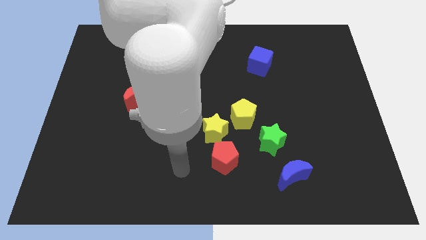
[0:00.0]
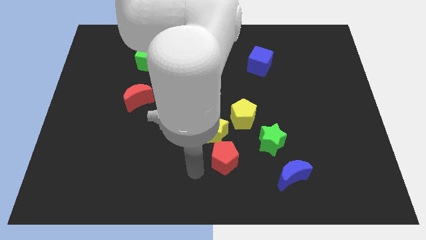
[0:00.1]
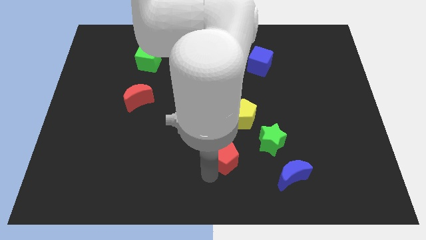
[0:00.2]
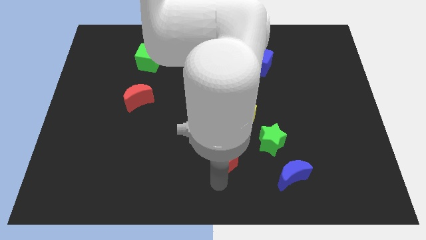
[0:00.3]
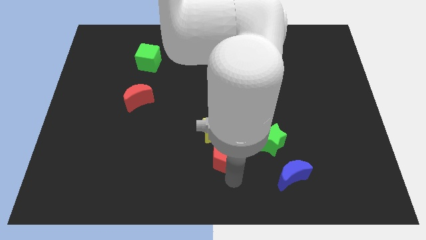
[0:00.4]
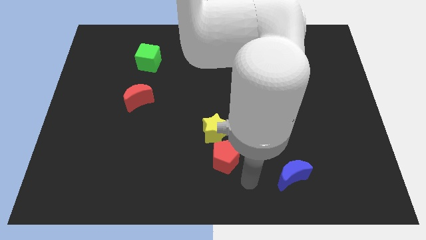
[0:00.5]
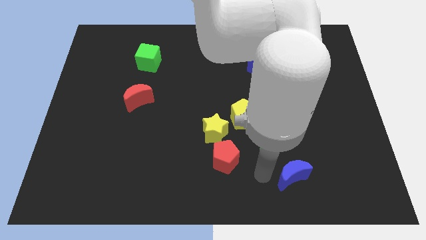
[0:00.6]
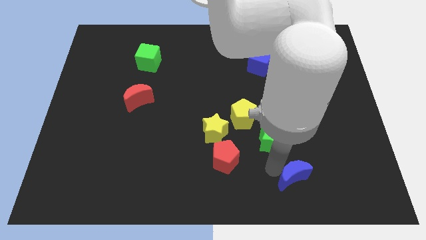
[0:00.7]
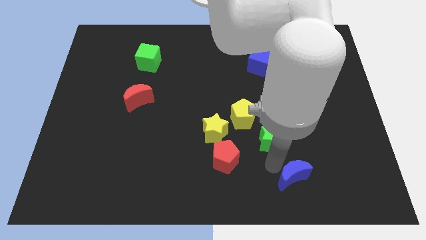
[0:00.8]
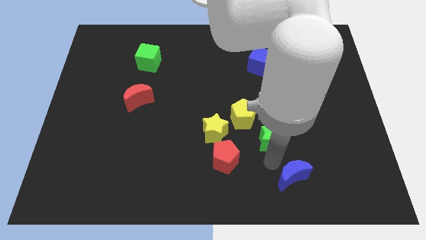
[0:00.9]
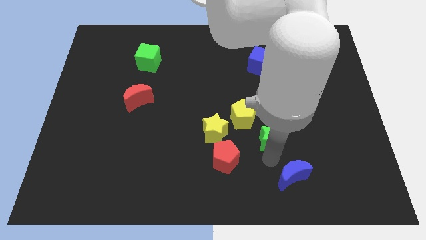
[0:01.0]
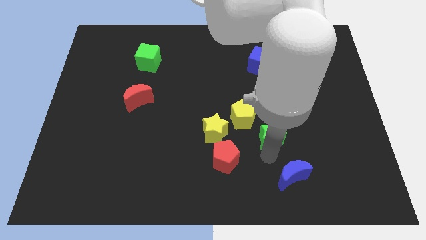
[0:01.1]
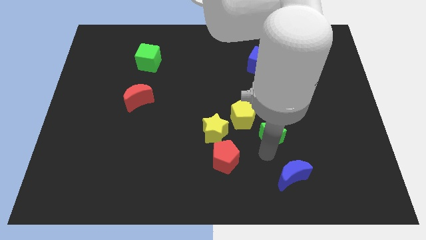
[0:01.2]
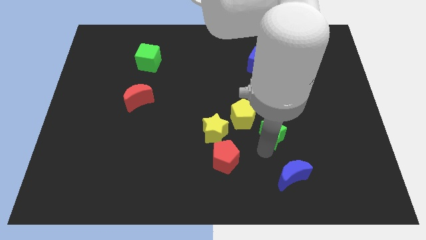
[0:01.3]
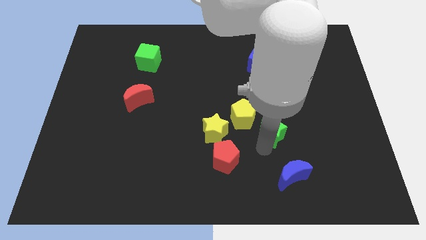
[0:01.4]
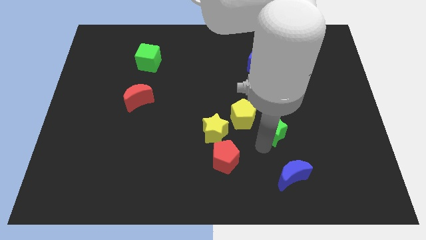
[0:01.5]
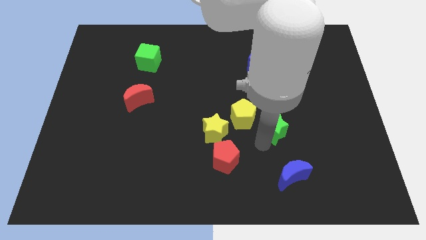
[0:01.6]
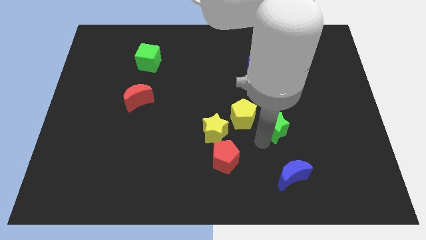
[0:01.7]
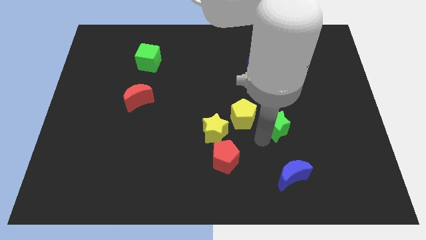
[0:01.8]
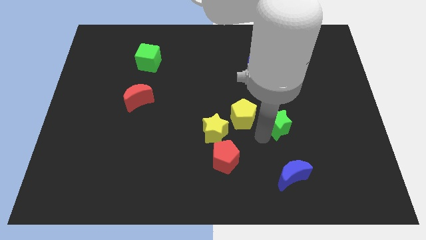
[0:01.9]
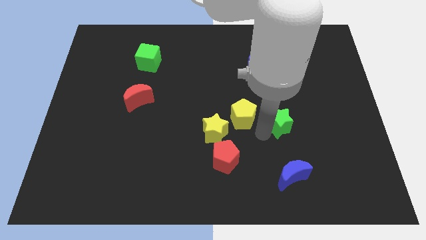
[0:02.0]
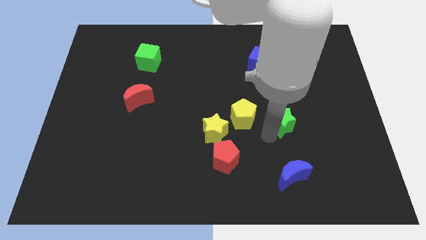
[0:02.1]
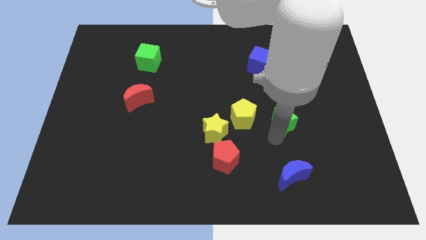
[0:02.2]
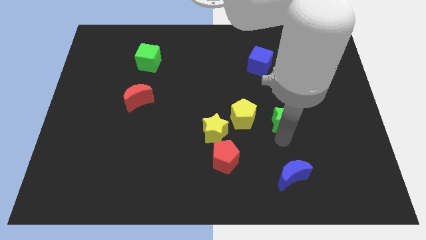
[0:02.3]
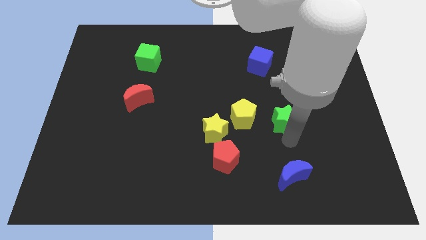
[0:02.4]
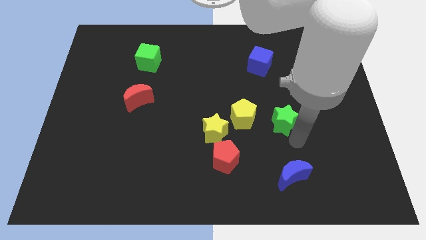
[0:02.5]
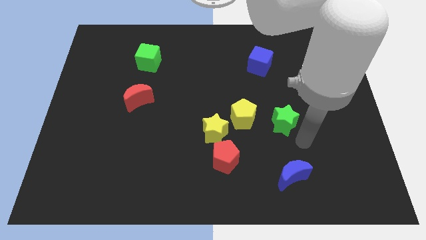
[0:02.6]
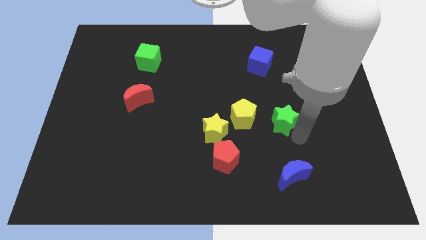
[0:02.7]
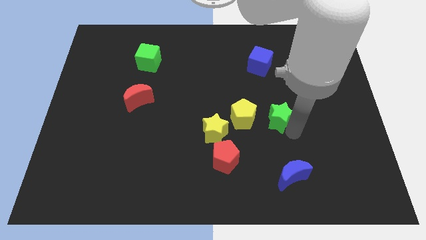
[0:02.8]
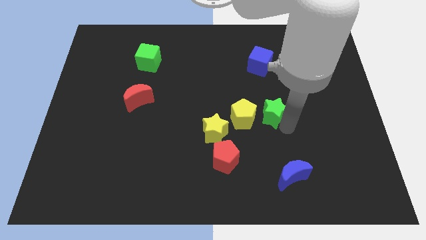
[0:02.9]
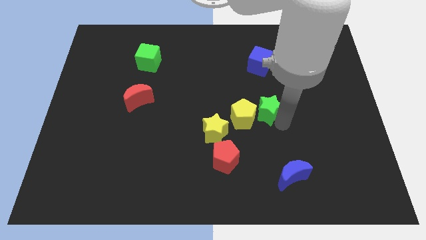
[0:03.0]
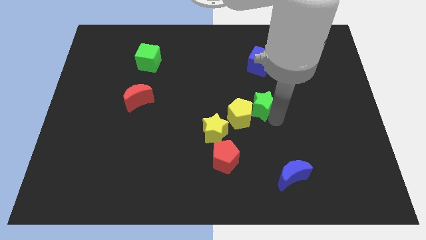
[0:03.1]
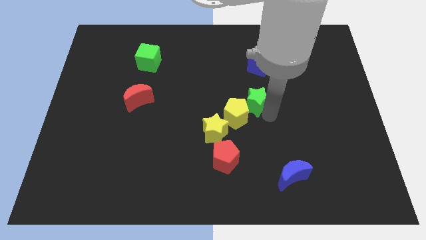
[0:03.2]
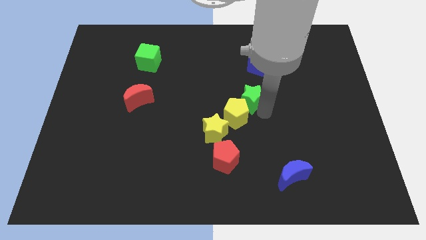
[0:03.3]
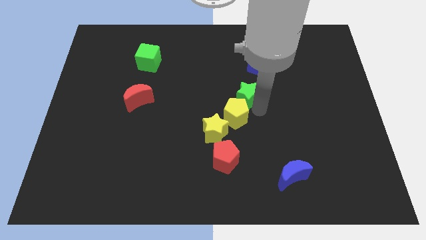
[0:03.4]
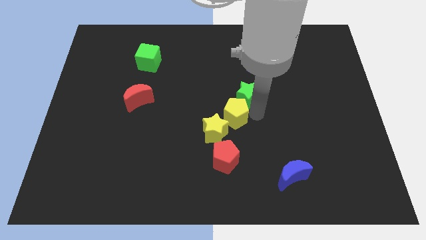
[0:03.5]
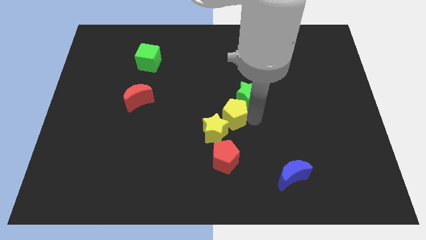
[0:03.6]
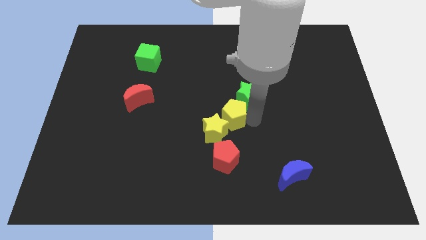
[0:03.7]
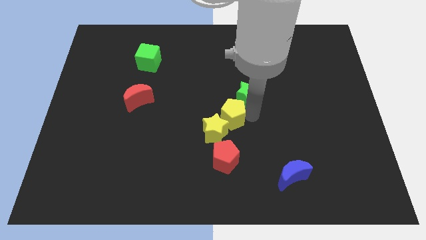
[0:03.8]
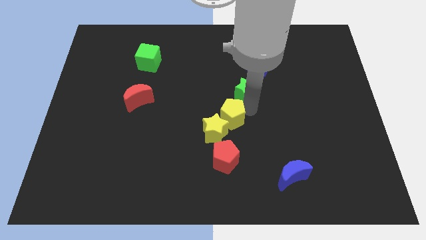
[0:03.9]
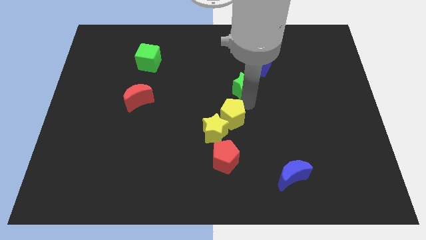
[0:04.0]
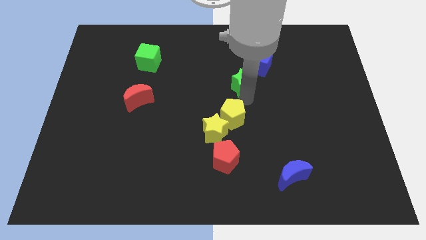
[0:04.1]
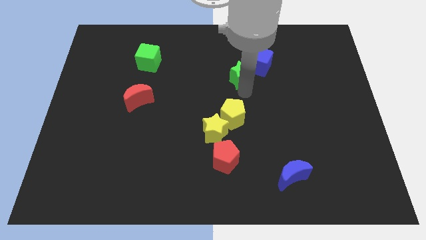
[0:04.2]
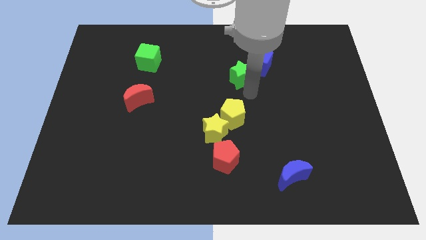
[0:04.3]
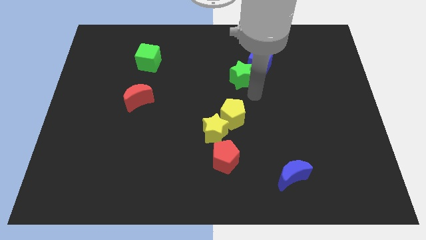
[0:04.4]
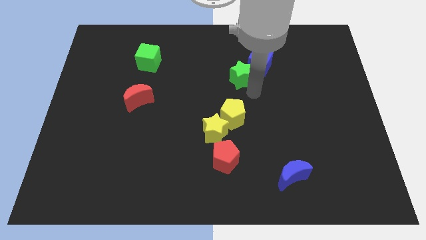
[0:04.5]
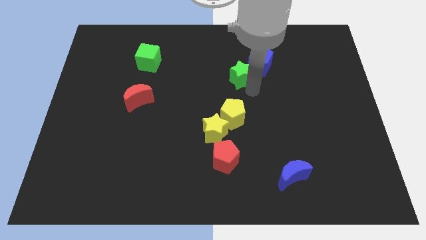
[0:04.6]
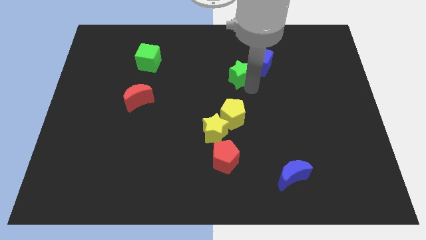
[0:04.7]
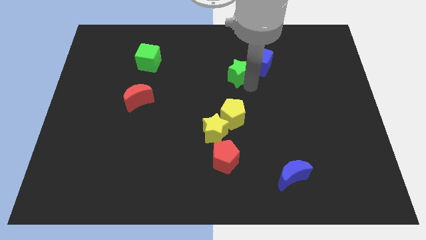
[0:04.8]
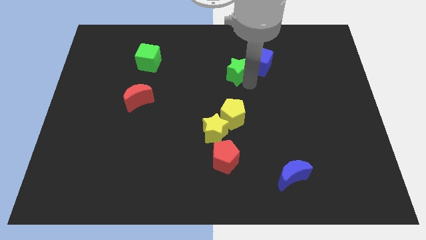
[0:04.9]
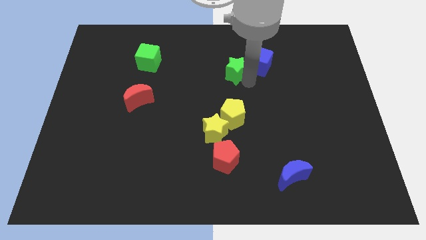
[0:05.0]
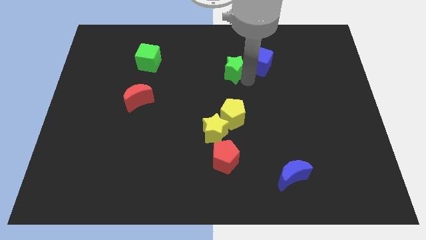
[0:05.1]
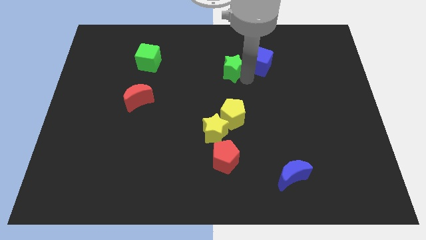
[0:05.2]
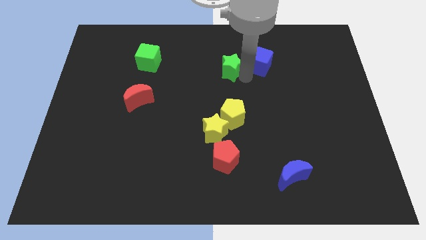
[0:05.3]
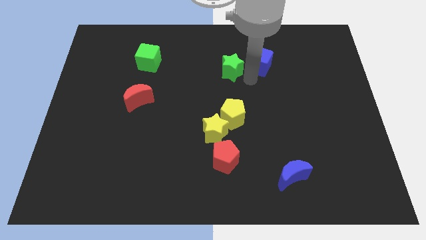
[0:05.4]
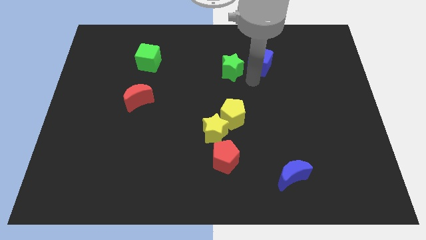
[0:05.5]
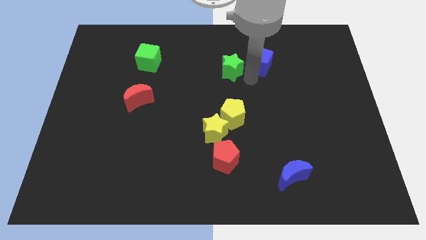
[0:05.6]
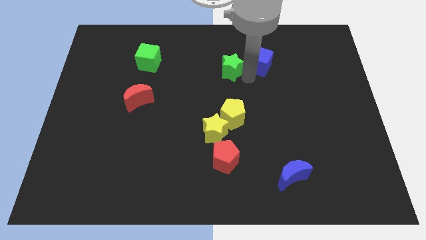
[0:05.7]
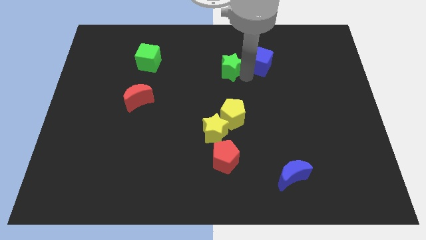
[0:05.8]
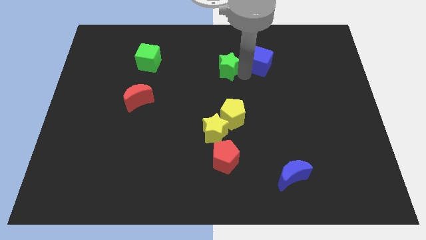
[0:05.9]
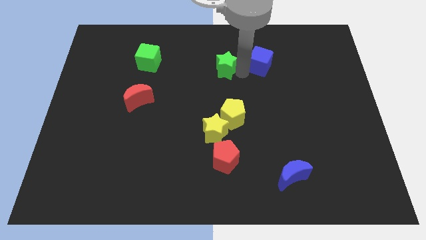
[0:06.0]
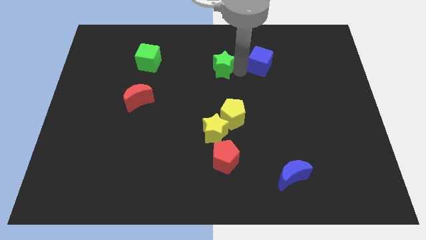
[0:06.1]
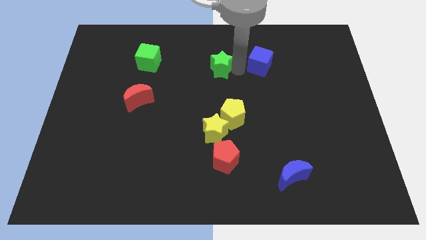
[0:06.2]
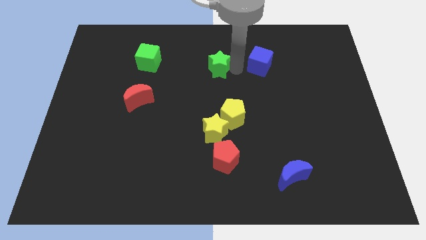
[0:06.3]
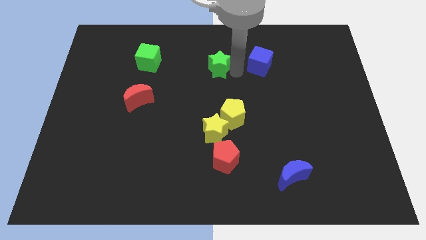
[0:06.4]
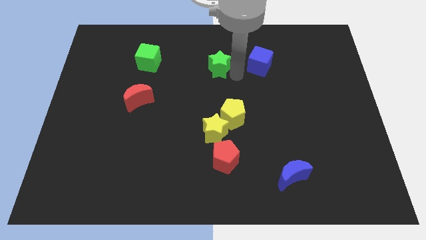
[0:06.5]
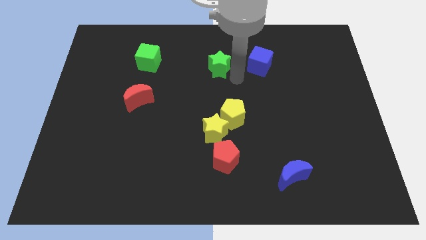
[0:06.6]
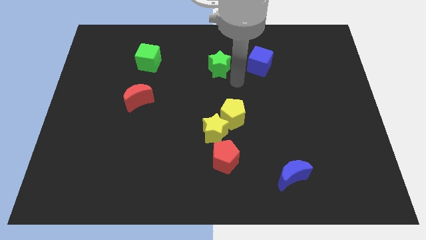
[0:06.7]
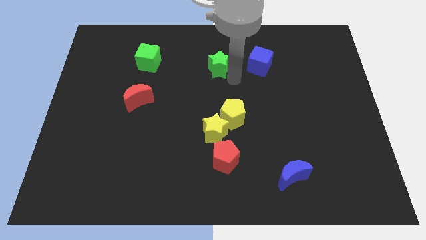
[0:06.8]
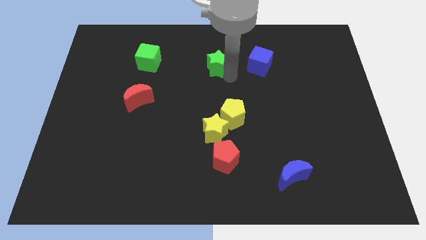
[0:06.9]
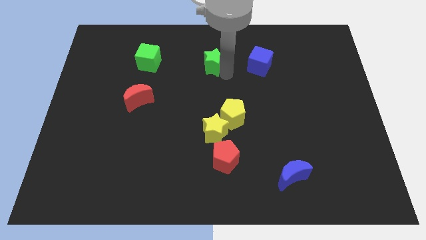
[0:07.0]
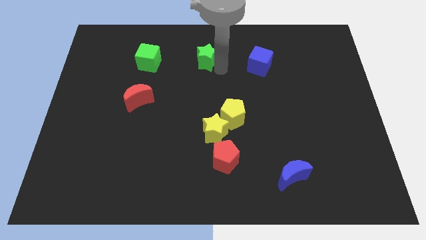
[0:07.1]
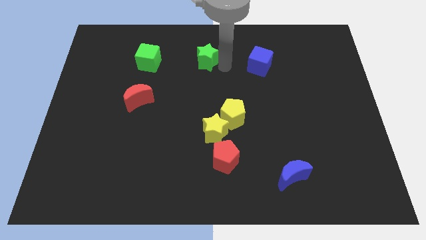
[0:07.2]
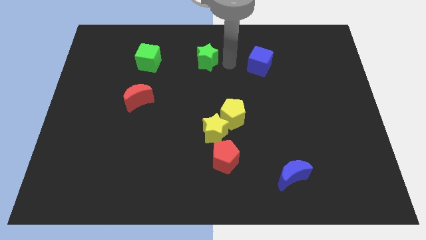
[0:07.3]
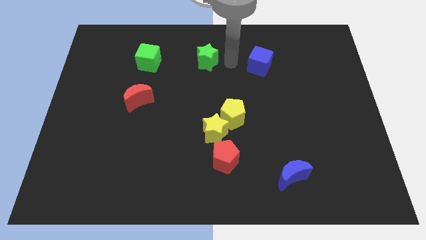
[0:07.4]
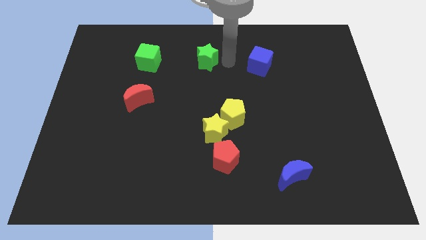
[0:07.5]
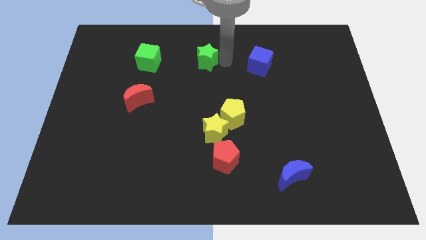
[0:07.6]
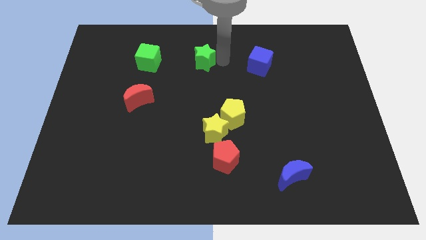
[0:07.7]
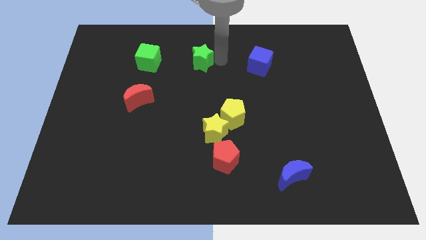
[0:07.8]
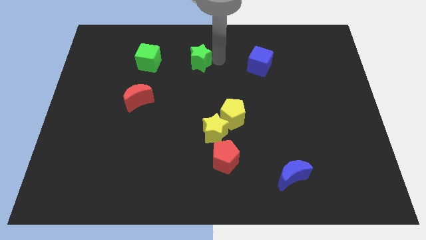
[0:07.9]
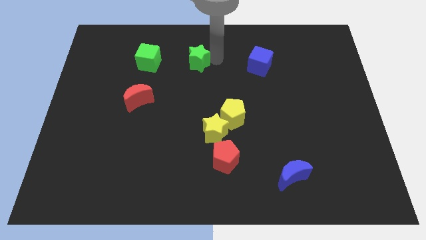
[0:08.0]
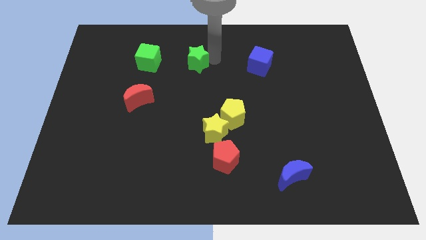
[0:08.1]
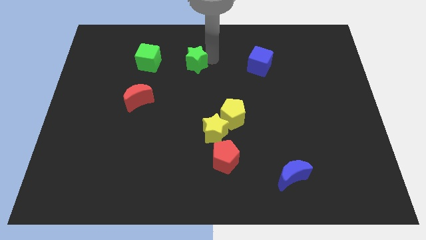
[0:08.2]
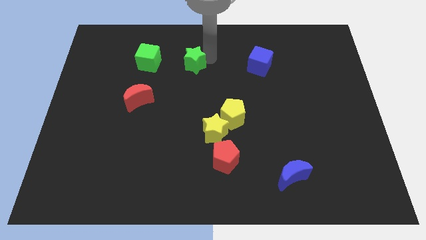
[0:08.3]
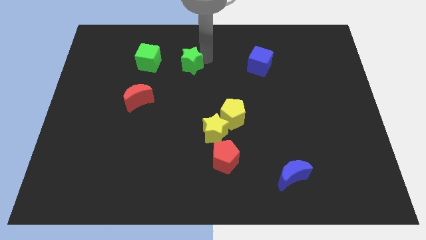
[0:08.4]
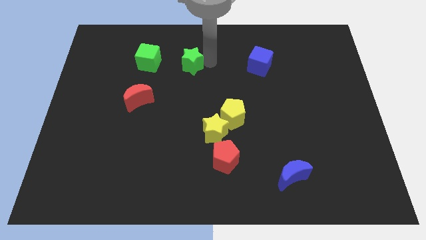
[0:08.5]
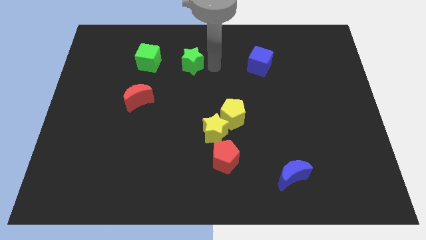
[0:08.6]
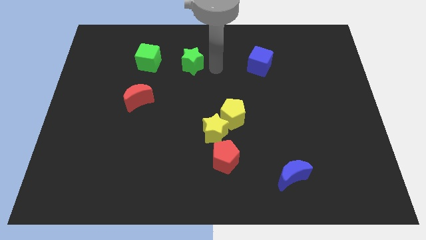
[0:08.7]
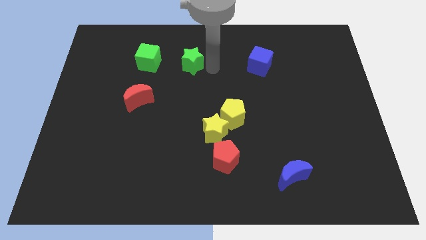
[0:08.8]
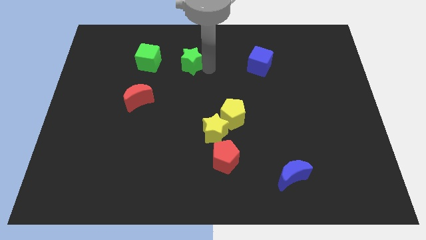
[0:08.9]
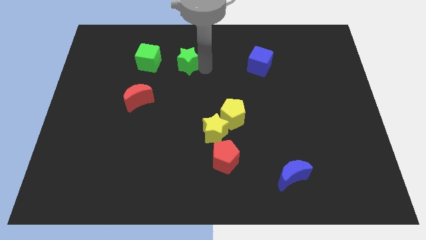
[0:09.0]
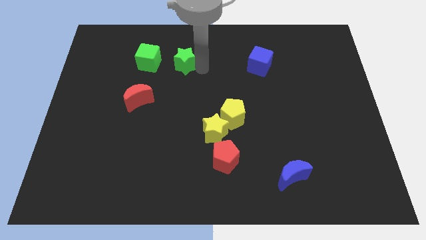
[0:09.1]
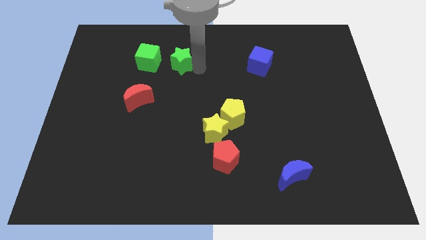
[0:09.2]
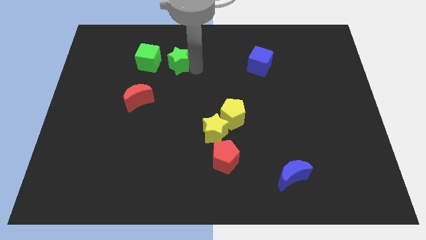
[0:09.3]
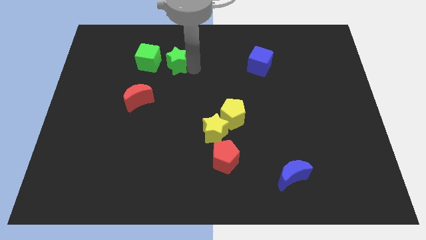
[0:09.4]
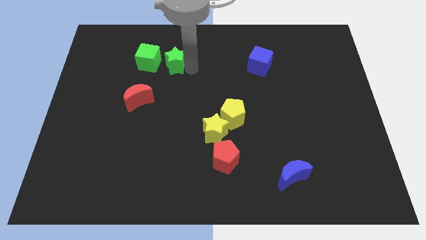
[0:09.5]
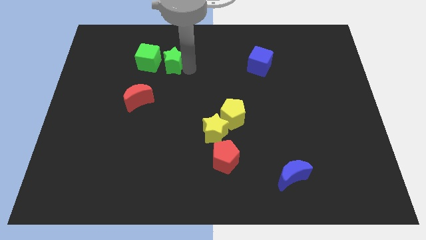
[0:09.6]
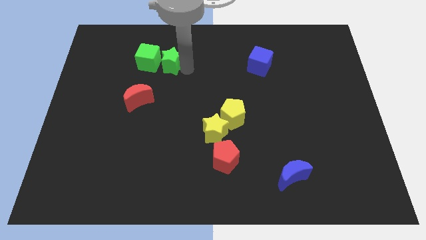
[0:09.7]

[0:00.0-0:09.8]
put the green star to the green cube
